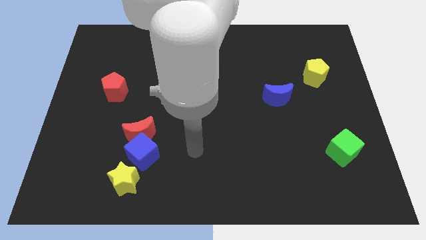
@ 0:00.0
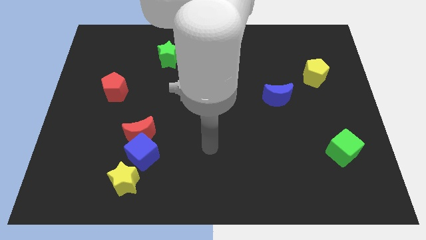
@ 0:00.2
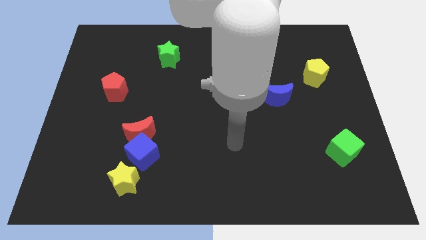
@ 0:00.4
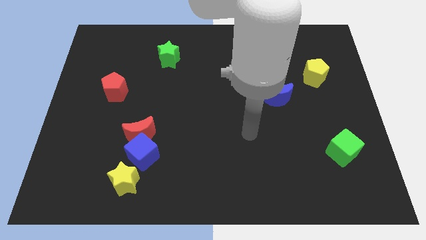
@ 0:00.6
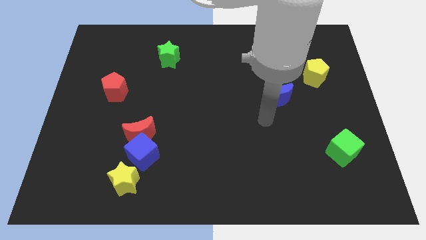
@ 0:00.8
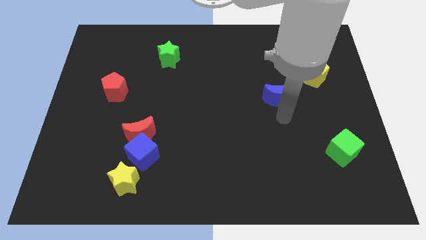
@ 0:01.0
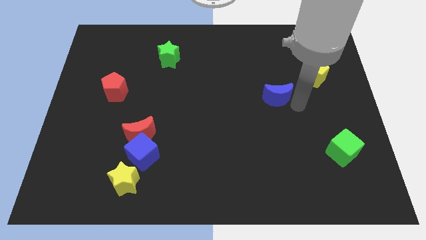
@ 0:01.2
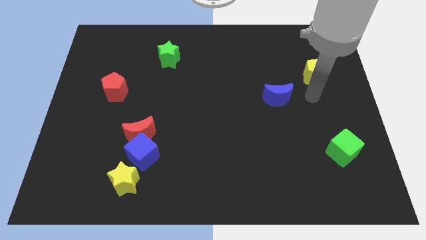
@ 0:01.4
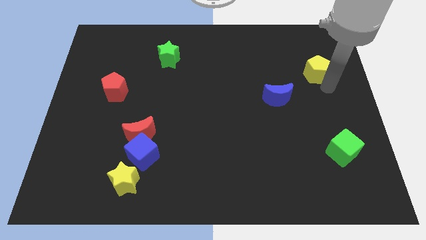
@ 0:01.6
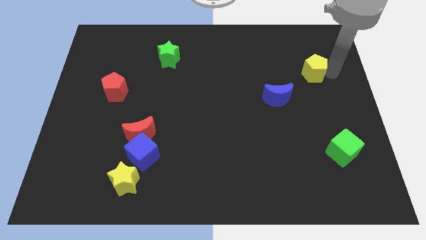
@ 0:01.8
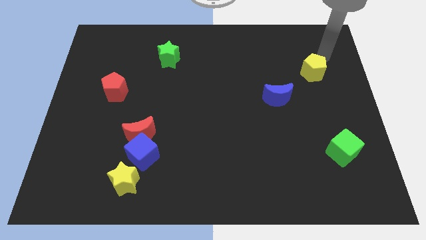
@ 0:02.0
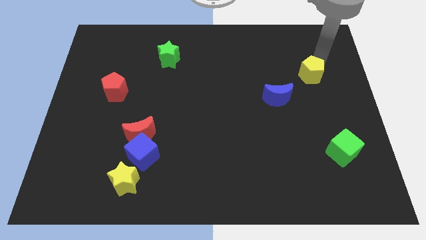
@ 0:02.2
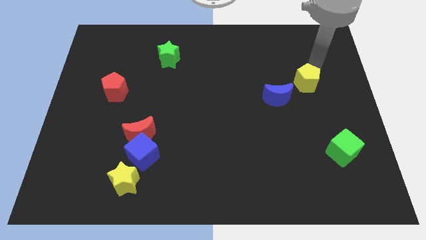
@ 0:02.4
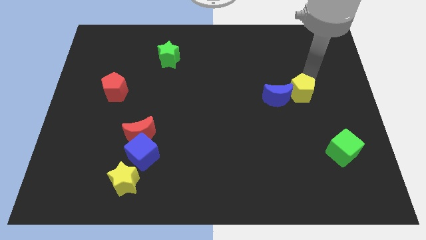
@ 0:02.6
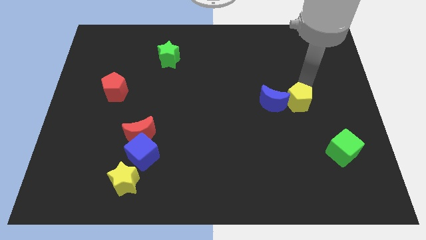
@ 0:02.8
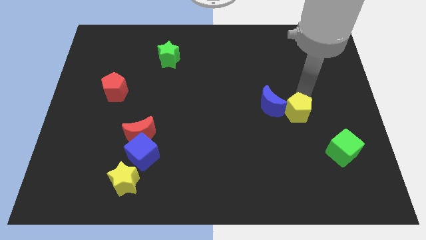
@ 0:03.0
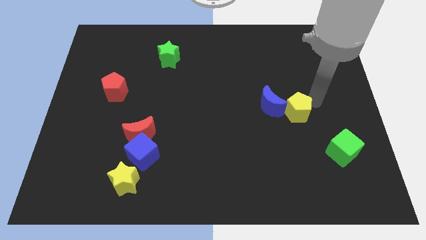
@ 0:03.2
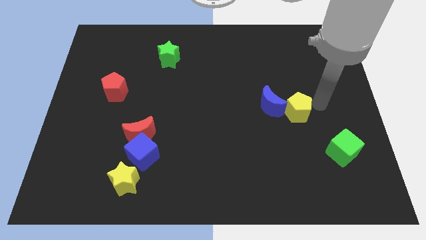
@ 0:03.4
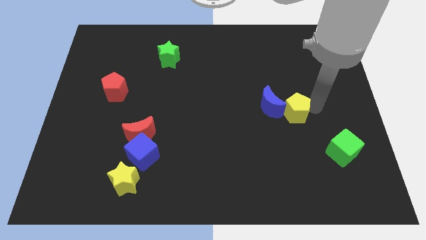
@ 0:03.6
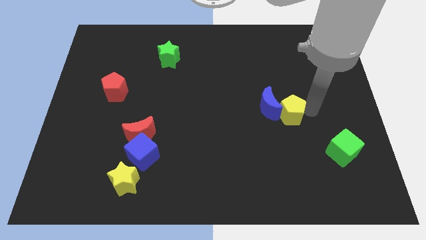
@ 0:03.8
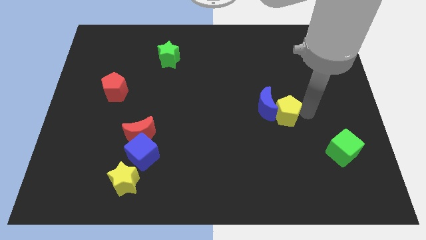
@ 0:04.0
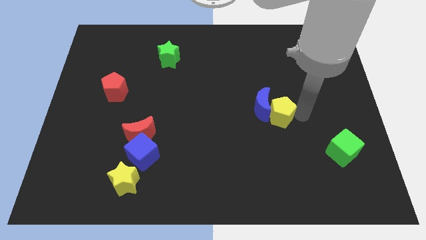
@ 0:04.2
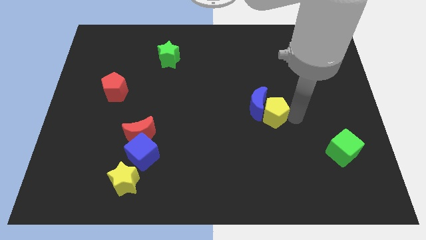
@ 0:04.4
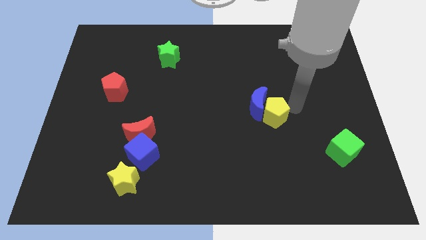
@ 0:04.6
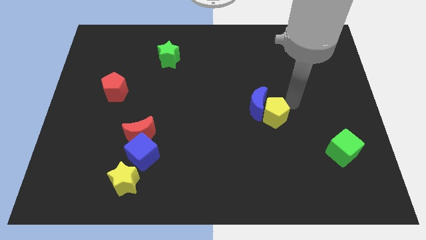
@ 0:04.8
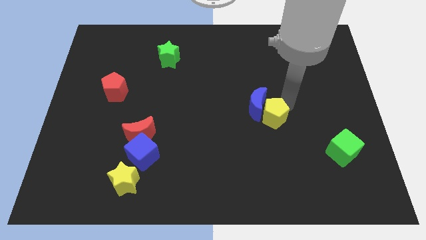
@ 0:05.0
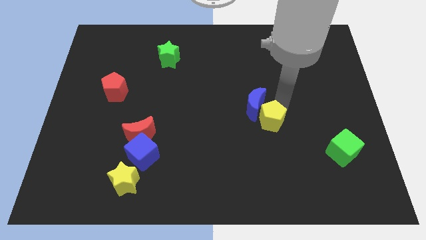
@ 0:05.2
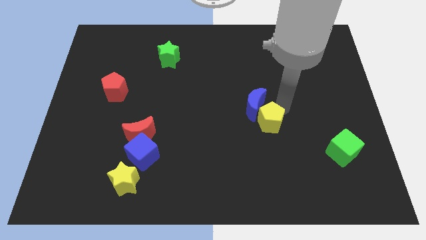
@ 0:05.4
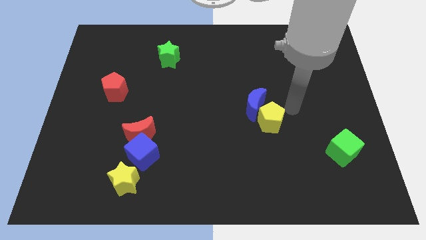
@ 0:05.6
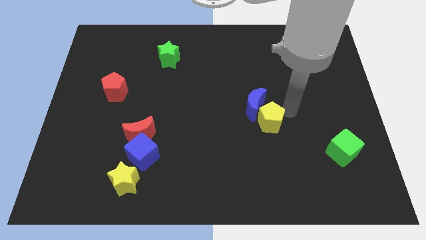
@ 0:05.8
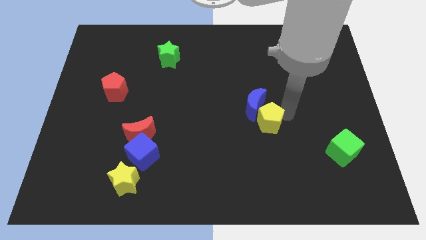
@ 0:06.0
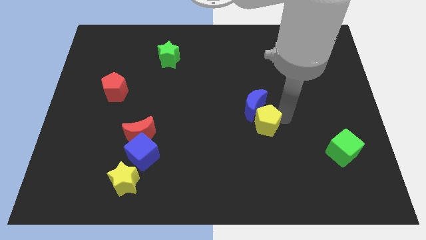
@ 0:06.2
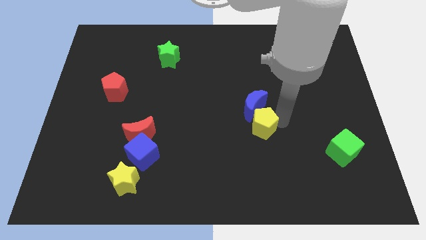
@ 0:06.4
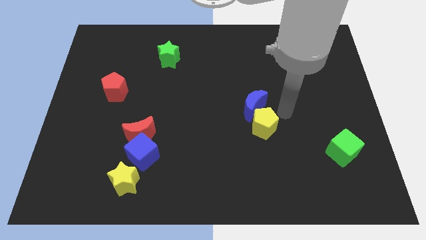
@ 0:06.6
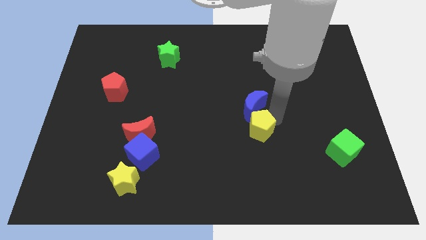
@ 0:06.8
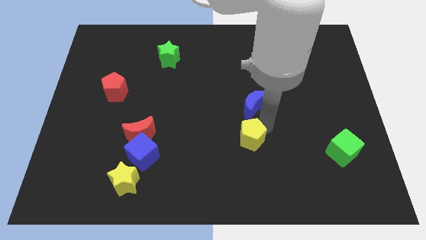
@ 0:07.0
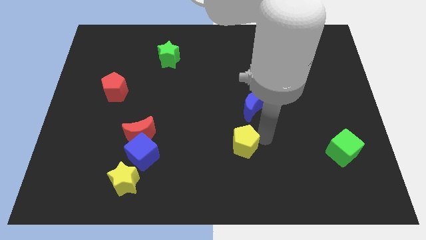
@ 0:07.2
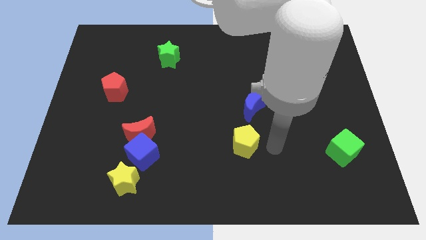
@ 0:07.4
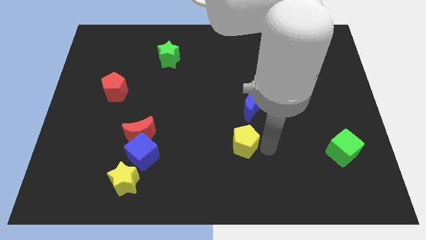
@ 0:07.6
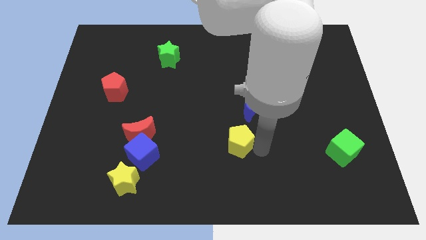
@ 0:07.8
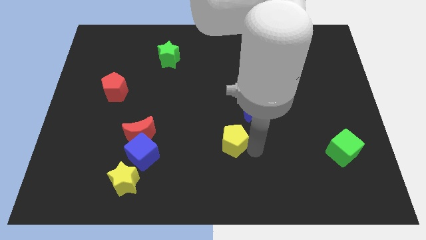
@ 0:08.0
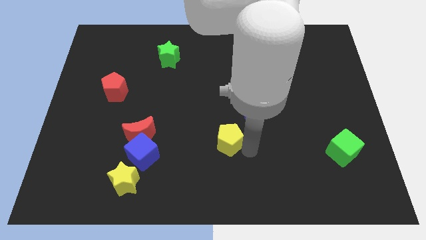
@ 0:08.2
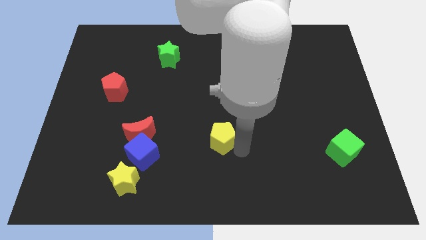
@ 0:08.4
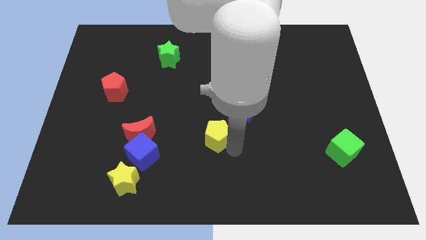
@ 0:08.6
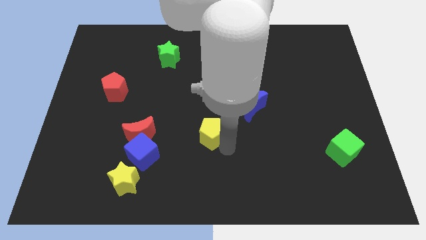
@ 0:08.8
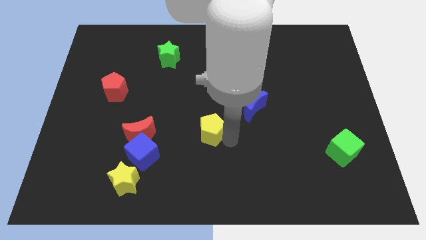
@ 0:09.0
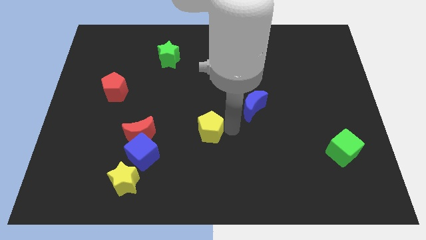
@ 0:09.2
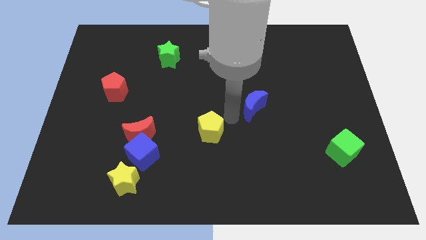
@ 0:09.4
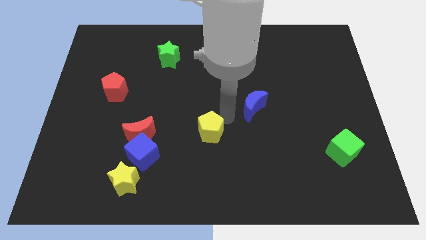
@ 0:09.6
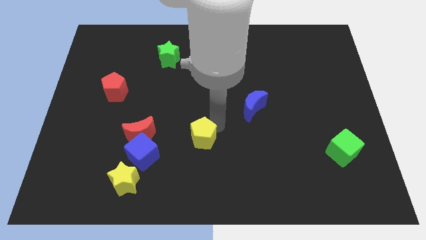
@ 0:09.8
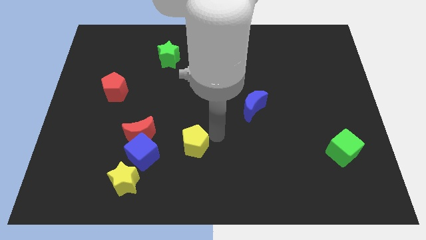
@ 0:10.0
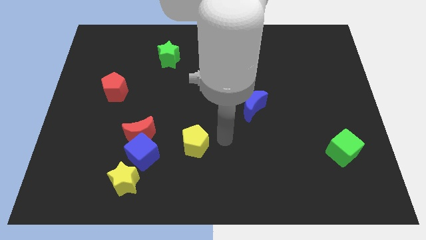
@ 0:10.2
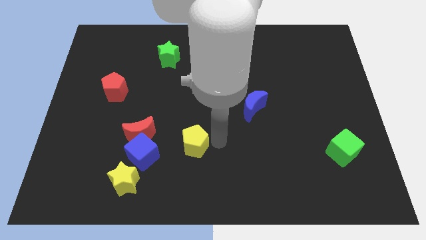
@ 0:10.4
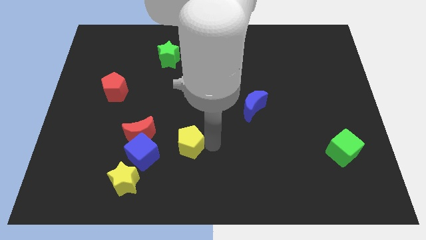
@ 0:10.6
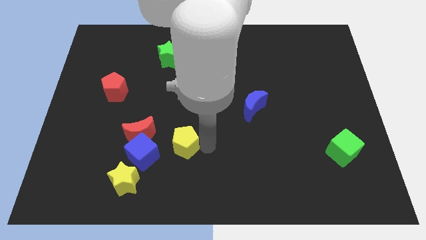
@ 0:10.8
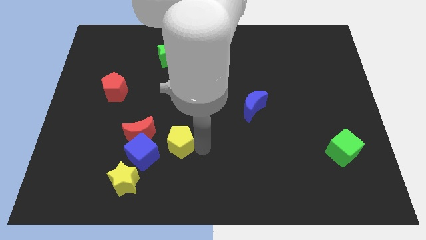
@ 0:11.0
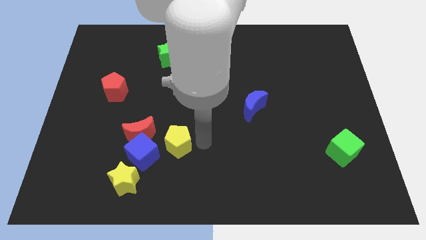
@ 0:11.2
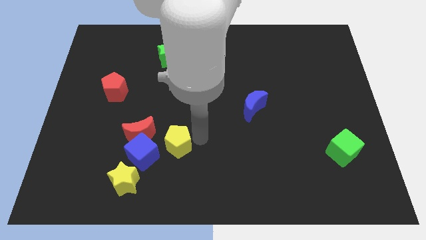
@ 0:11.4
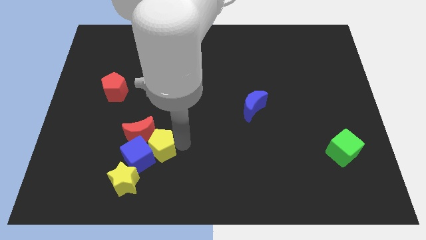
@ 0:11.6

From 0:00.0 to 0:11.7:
push the yellow pentagon to the blue cube

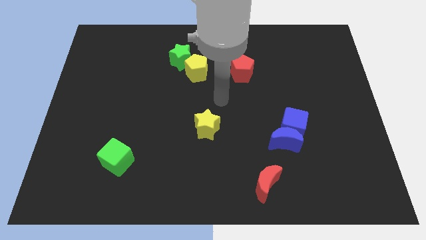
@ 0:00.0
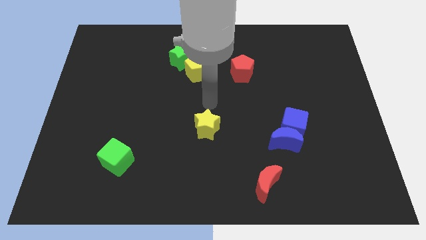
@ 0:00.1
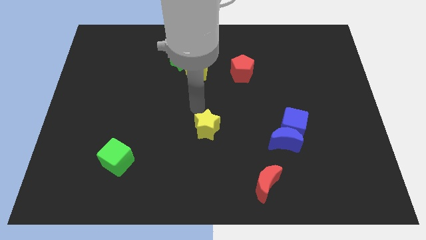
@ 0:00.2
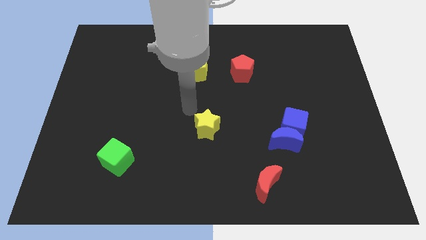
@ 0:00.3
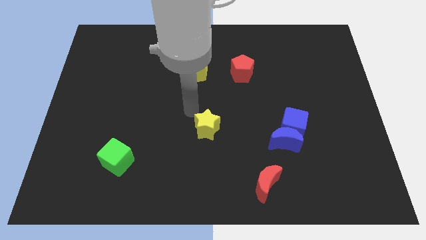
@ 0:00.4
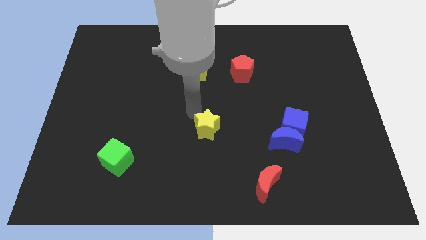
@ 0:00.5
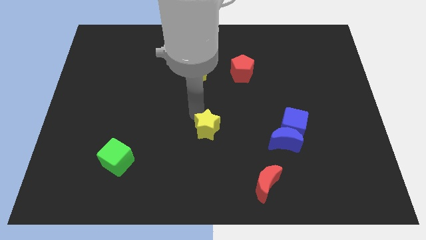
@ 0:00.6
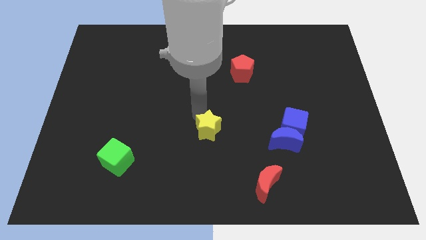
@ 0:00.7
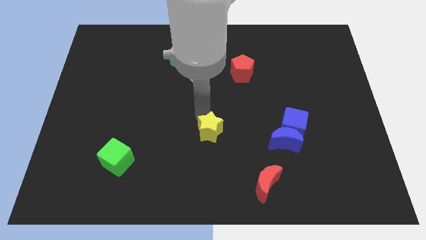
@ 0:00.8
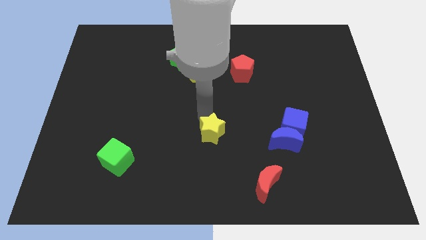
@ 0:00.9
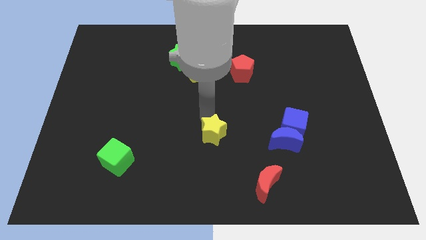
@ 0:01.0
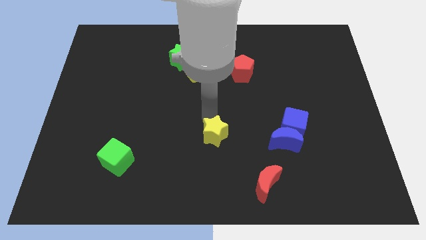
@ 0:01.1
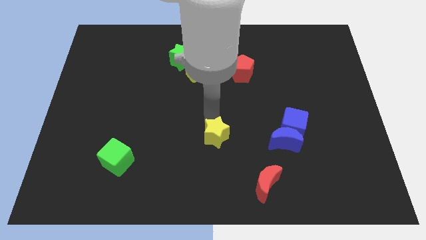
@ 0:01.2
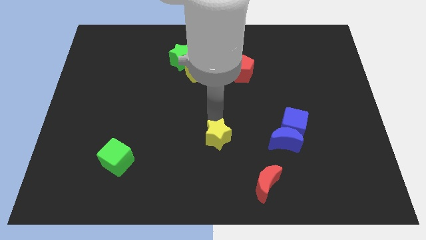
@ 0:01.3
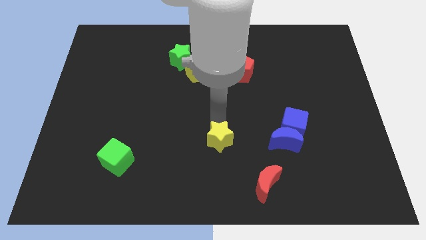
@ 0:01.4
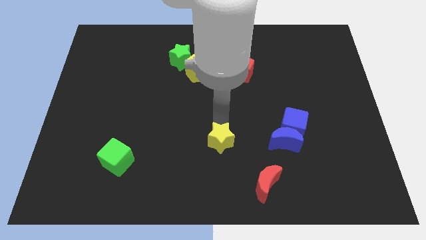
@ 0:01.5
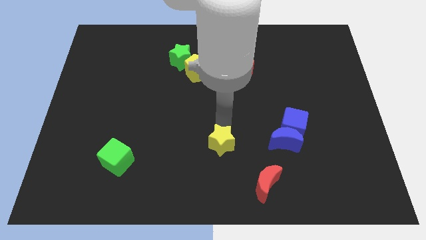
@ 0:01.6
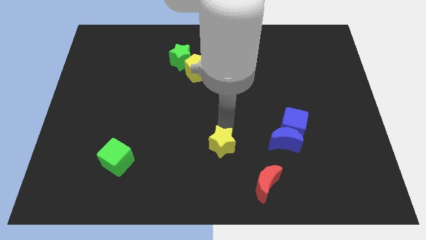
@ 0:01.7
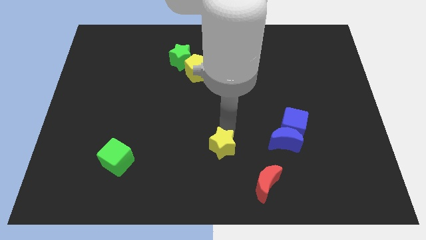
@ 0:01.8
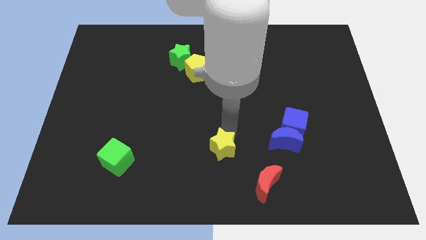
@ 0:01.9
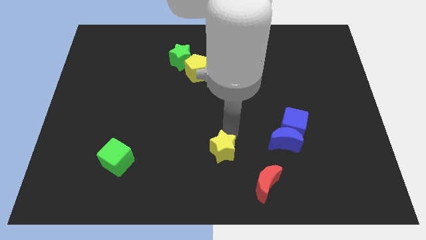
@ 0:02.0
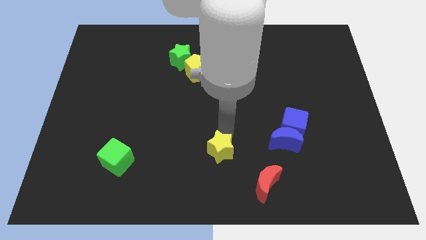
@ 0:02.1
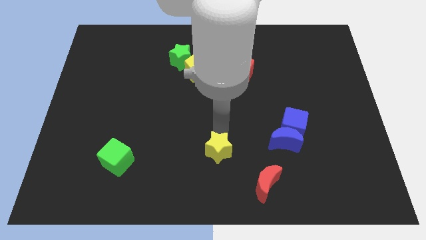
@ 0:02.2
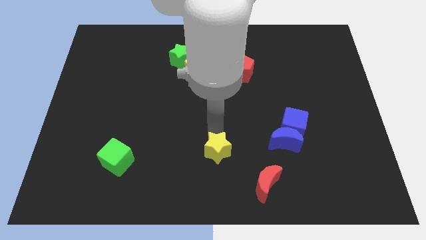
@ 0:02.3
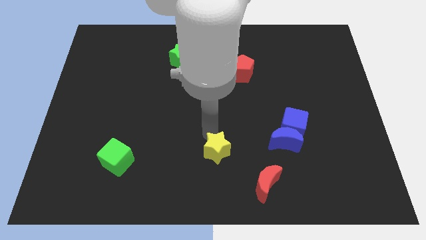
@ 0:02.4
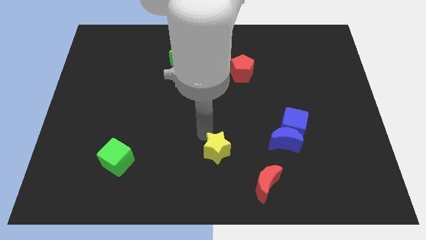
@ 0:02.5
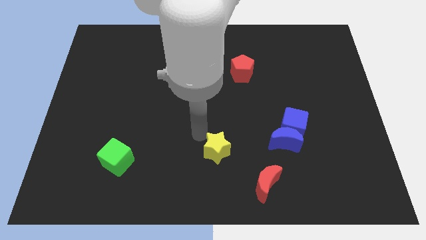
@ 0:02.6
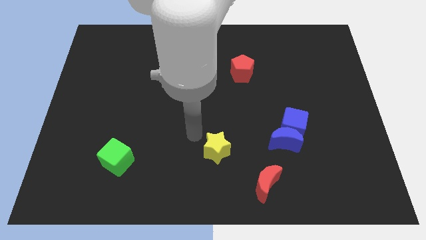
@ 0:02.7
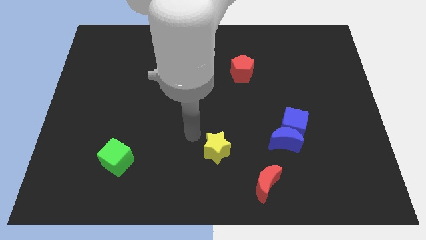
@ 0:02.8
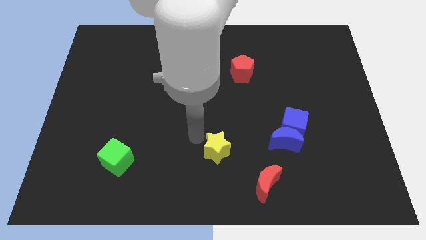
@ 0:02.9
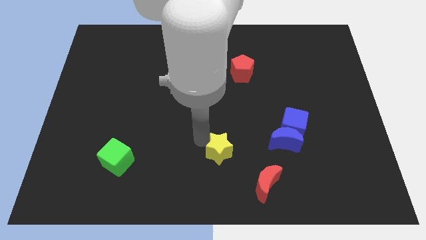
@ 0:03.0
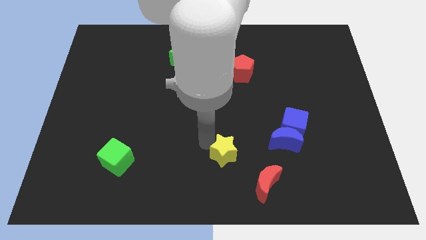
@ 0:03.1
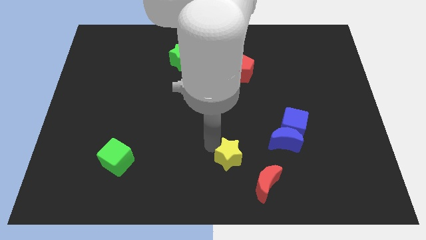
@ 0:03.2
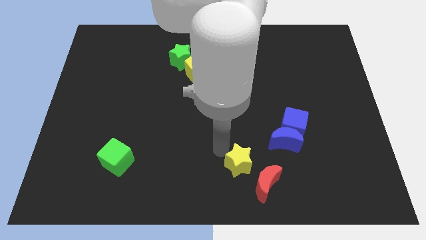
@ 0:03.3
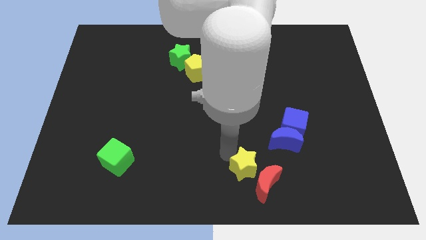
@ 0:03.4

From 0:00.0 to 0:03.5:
slide the yellow star towards the red moon
